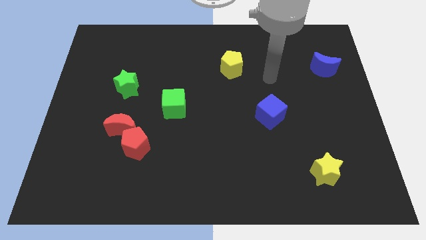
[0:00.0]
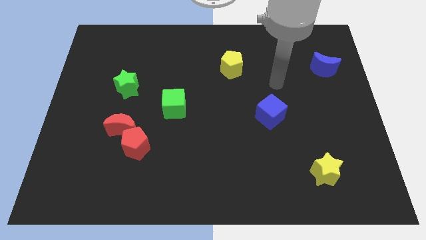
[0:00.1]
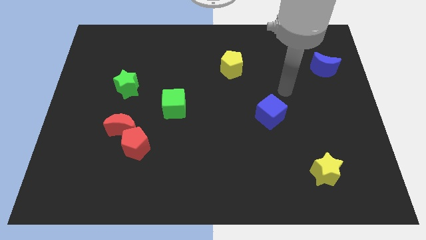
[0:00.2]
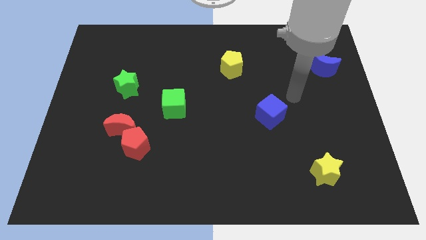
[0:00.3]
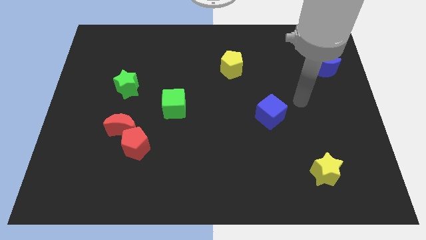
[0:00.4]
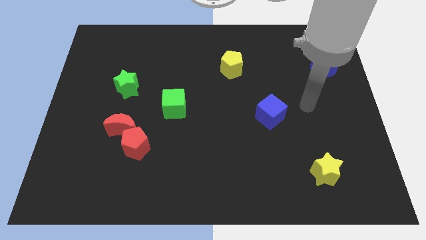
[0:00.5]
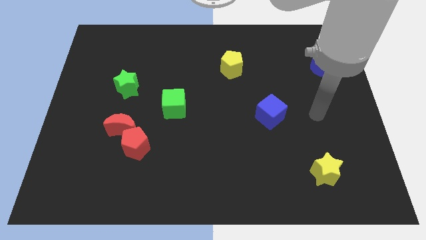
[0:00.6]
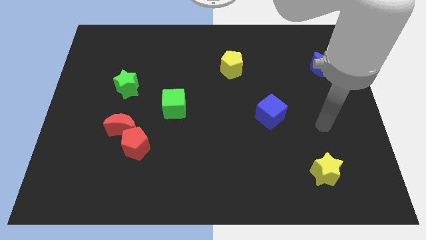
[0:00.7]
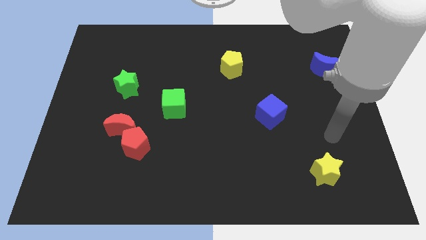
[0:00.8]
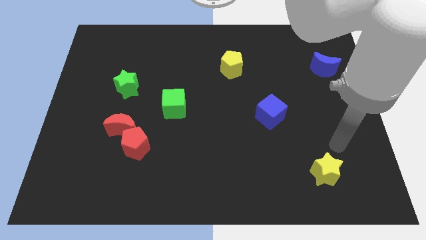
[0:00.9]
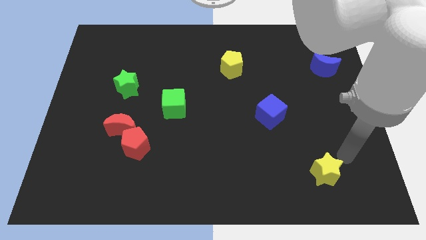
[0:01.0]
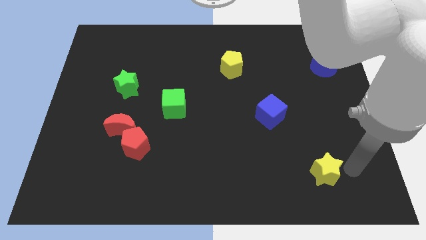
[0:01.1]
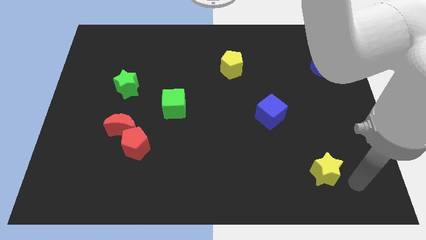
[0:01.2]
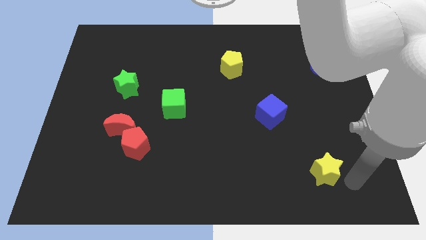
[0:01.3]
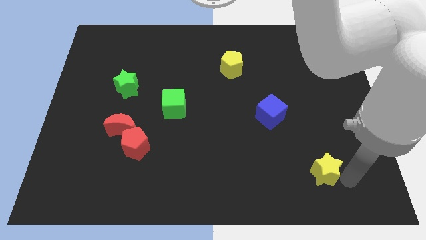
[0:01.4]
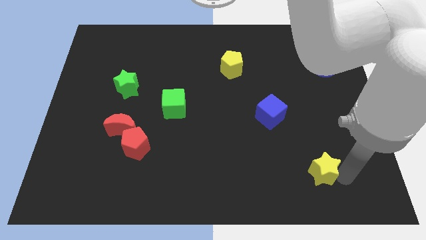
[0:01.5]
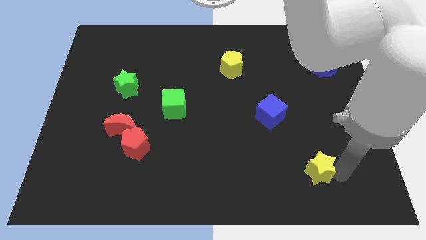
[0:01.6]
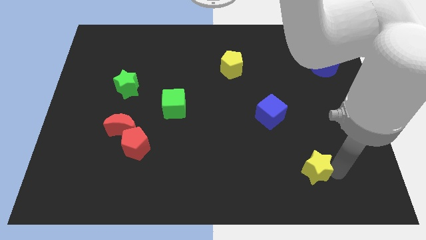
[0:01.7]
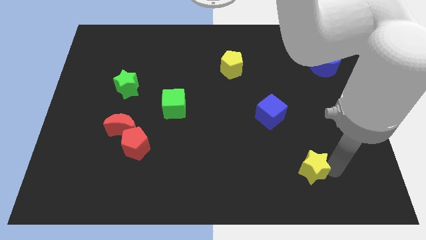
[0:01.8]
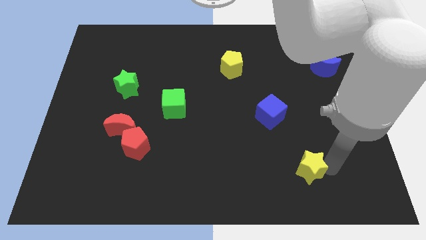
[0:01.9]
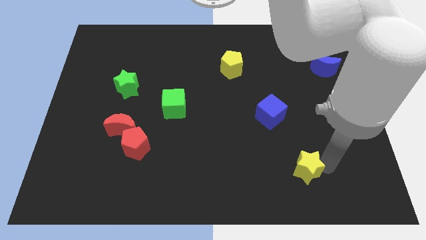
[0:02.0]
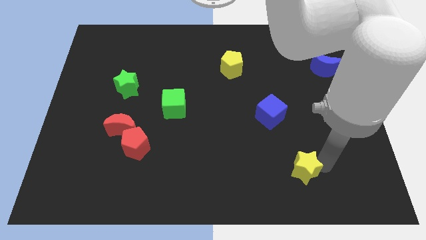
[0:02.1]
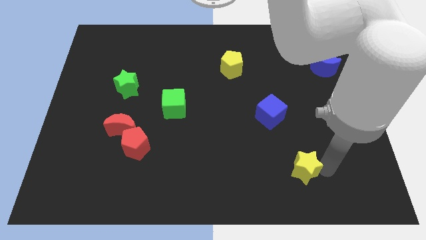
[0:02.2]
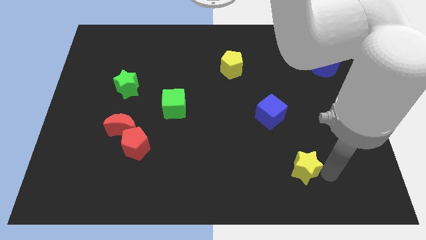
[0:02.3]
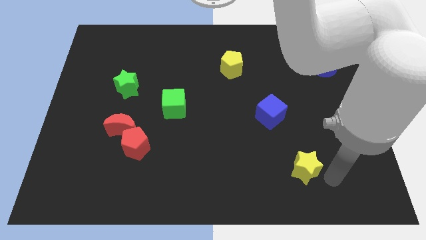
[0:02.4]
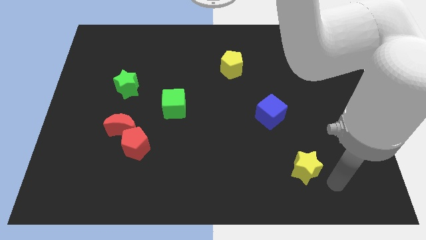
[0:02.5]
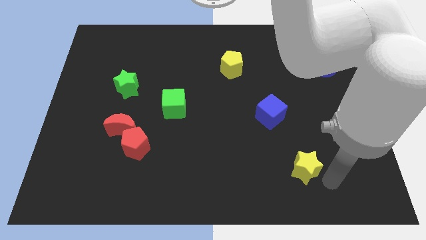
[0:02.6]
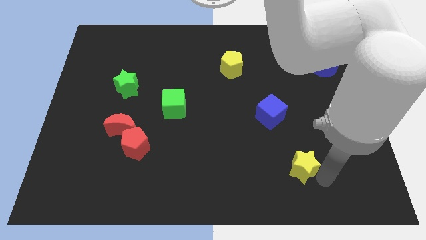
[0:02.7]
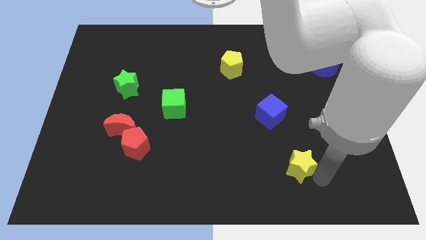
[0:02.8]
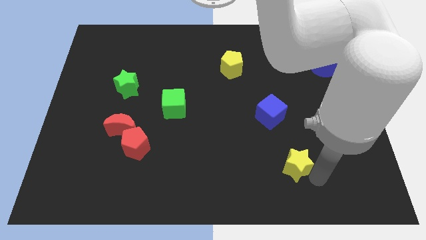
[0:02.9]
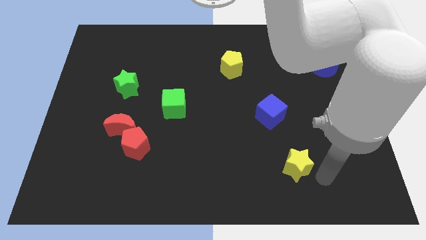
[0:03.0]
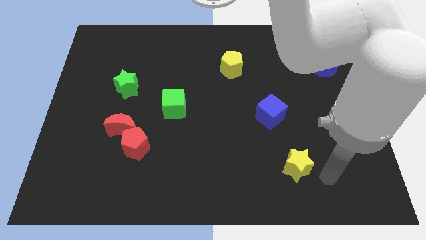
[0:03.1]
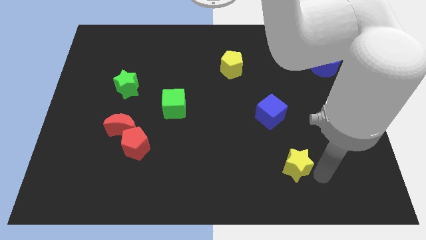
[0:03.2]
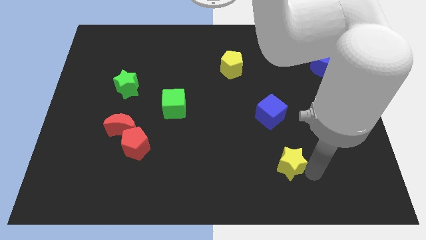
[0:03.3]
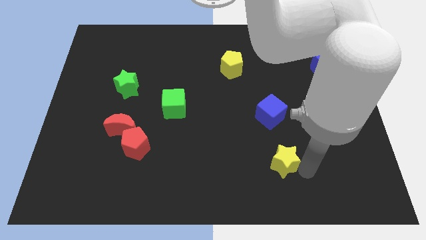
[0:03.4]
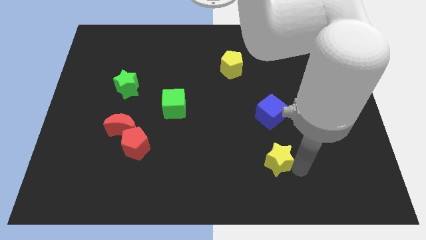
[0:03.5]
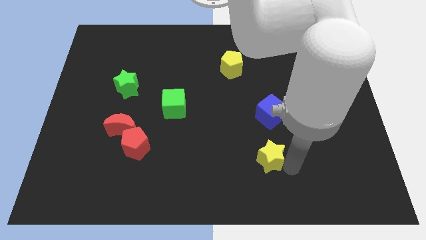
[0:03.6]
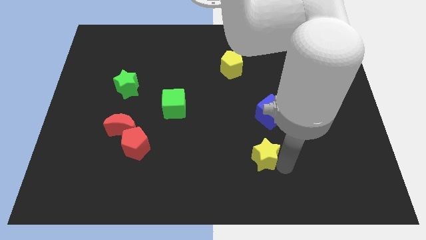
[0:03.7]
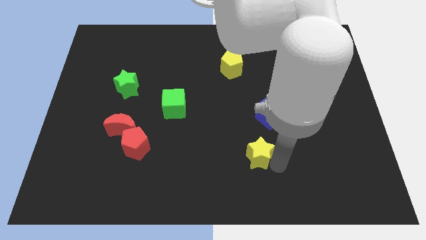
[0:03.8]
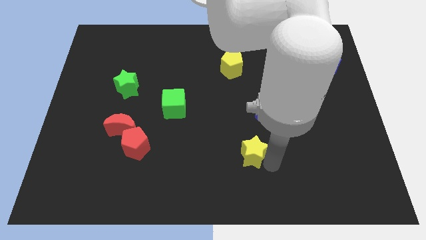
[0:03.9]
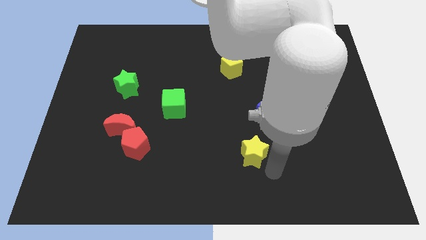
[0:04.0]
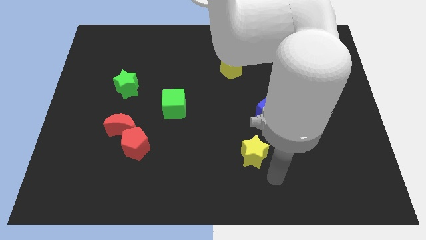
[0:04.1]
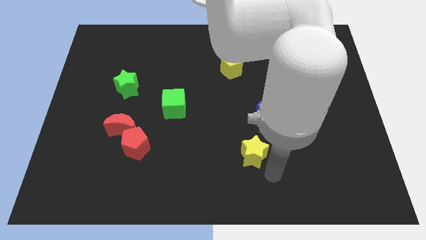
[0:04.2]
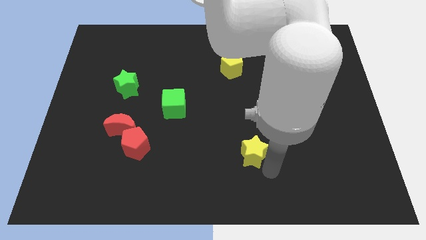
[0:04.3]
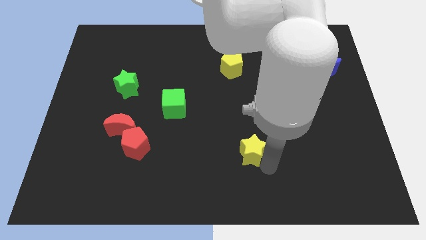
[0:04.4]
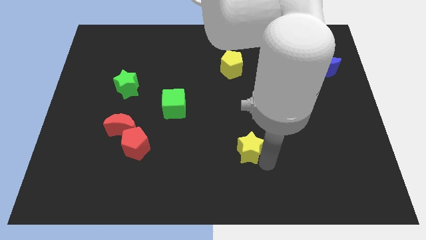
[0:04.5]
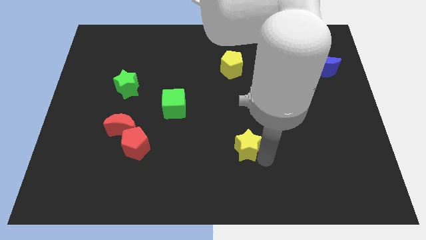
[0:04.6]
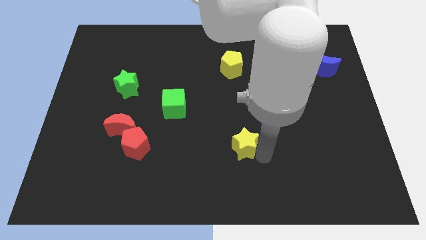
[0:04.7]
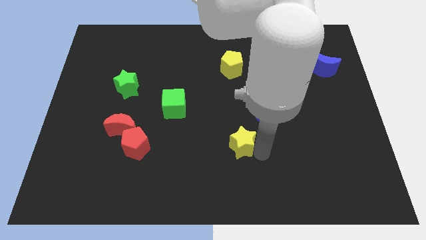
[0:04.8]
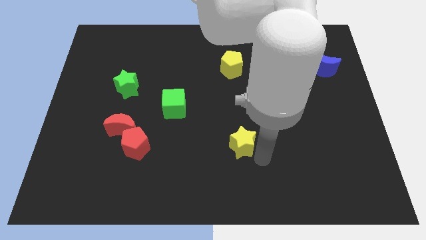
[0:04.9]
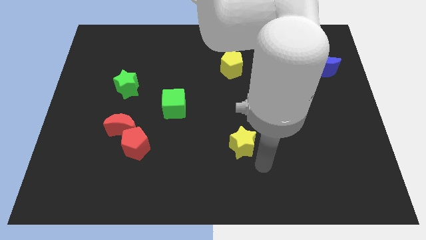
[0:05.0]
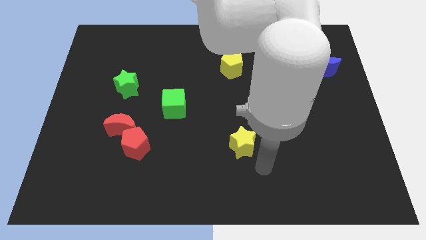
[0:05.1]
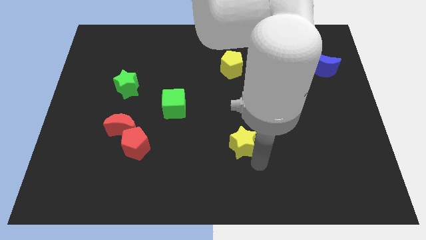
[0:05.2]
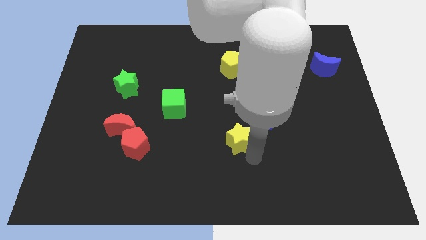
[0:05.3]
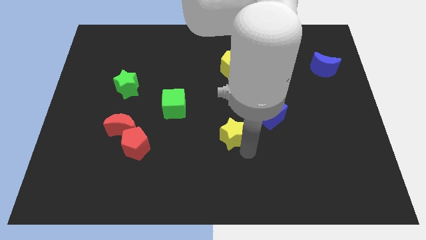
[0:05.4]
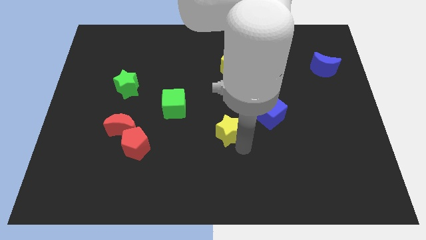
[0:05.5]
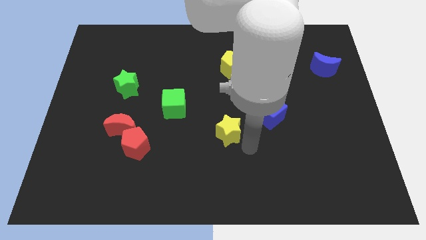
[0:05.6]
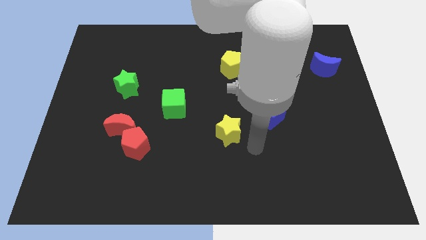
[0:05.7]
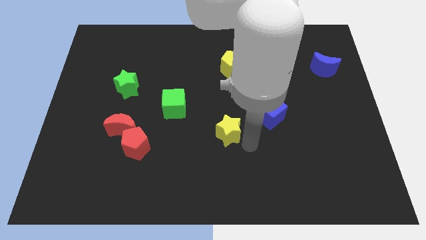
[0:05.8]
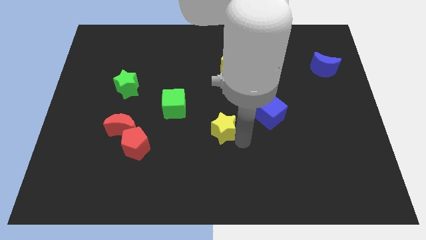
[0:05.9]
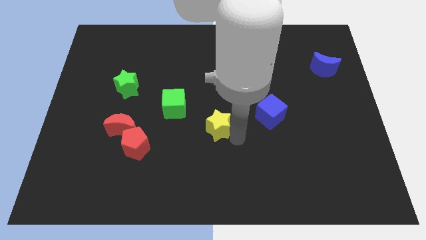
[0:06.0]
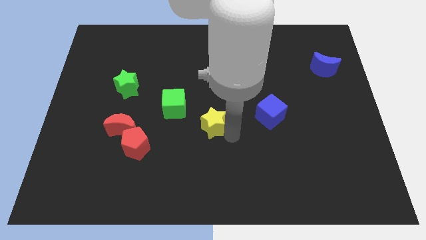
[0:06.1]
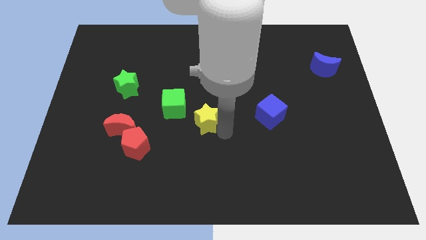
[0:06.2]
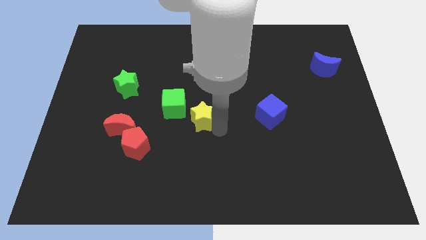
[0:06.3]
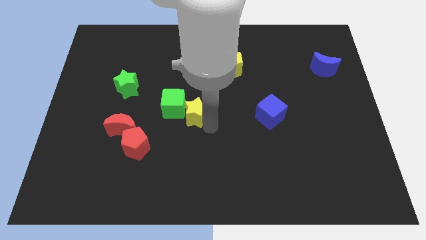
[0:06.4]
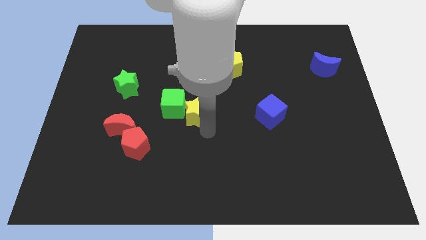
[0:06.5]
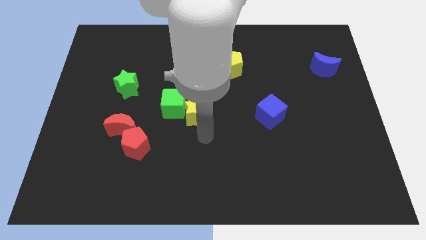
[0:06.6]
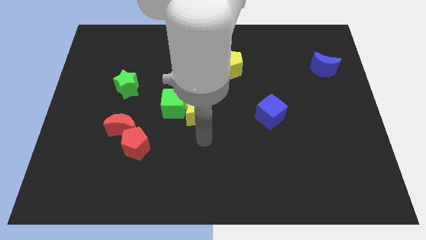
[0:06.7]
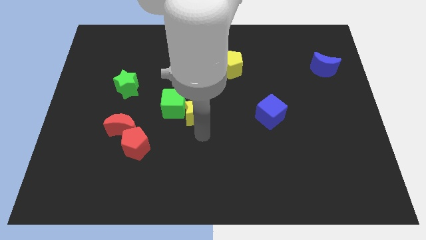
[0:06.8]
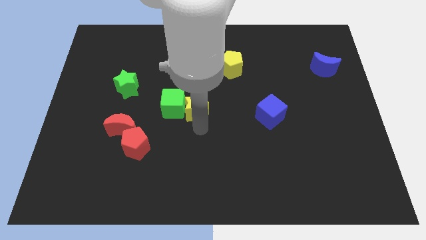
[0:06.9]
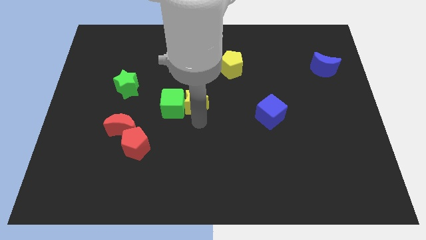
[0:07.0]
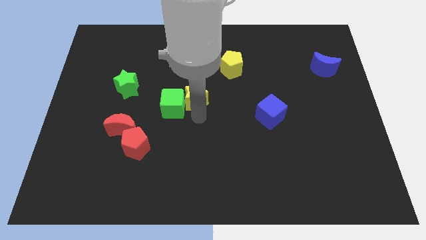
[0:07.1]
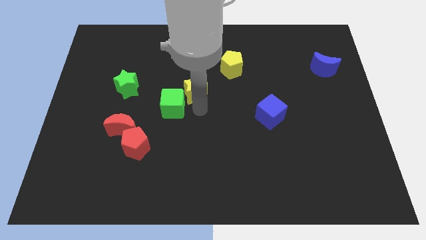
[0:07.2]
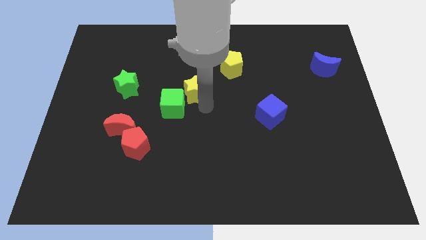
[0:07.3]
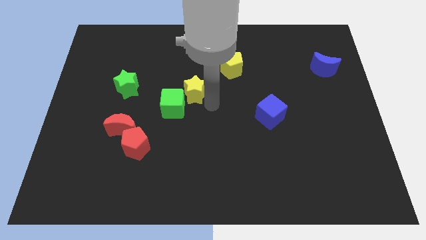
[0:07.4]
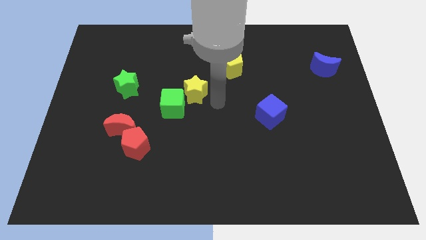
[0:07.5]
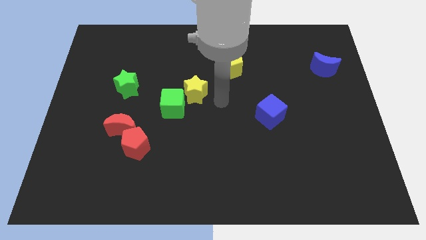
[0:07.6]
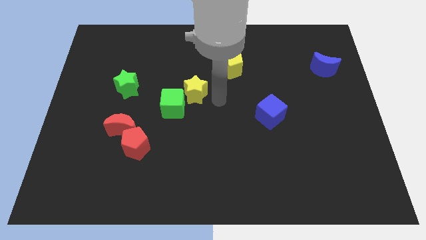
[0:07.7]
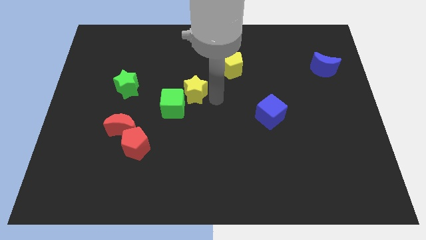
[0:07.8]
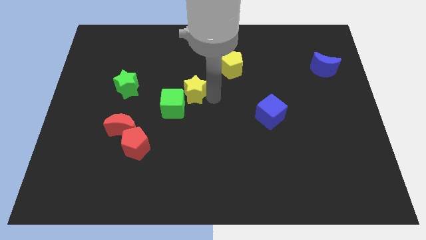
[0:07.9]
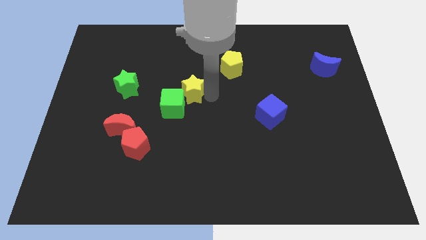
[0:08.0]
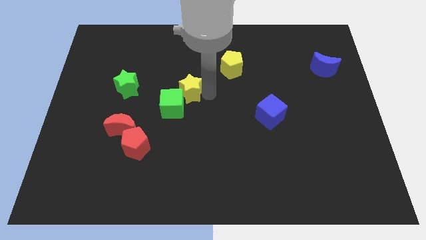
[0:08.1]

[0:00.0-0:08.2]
slide the yellow star right of the green star
